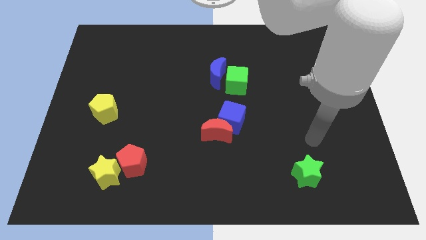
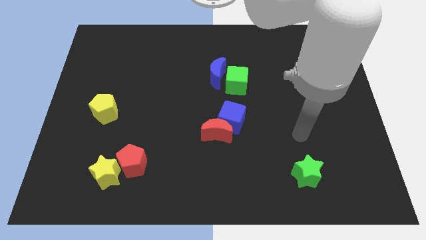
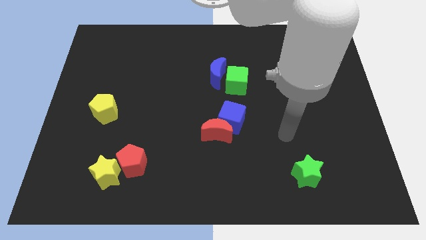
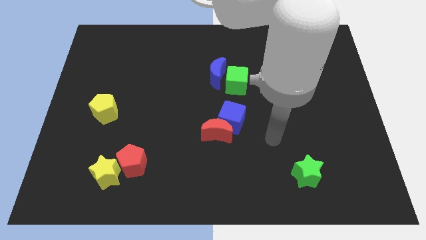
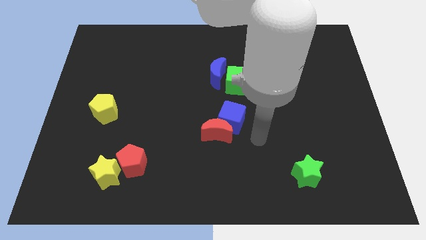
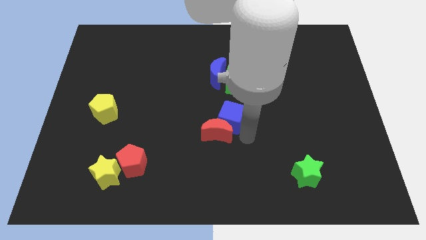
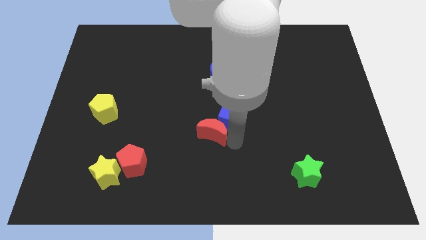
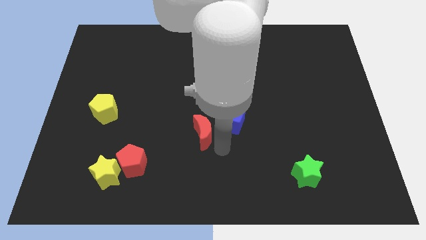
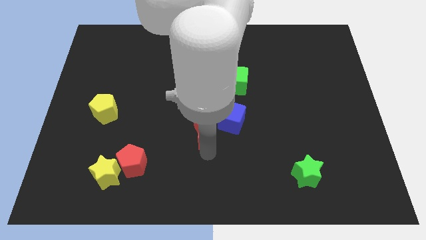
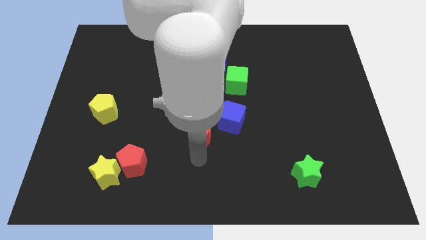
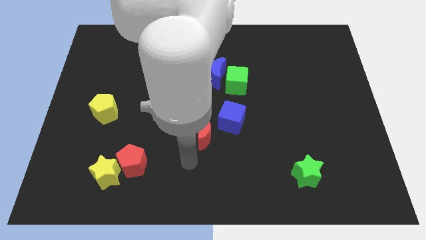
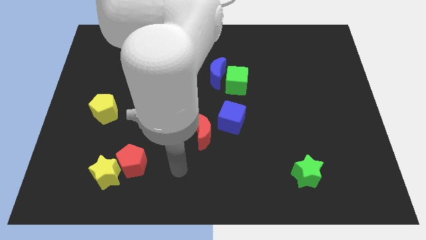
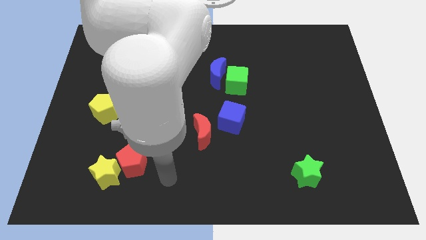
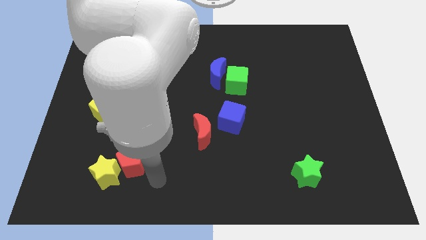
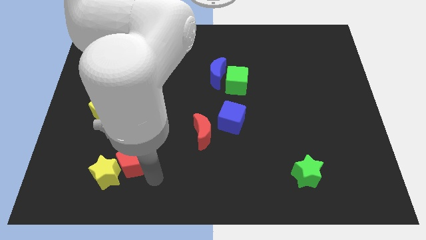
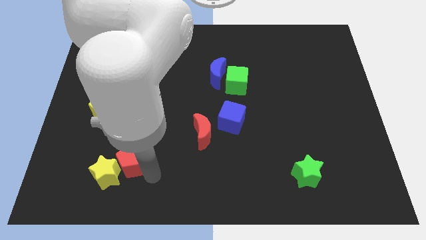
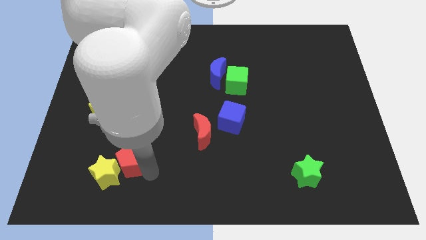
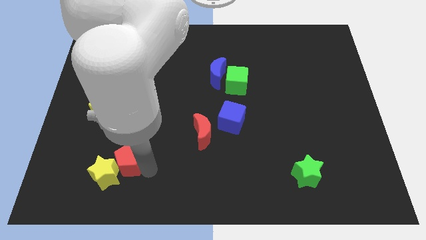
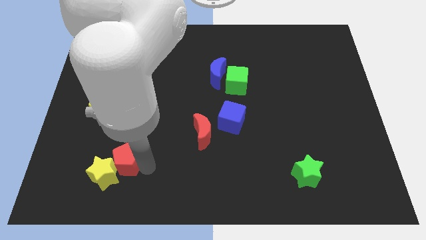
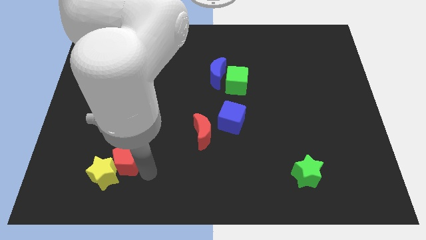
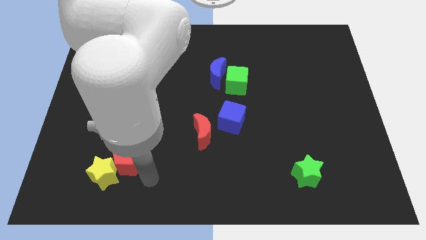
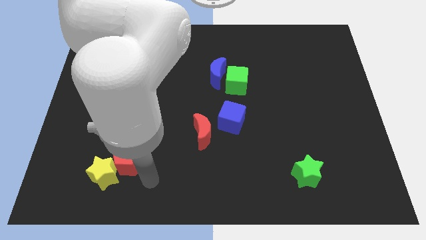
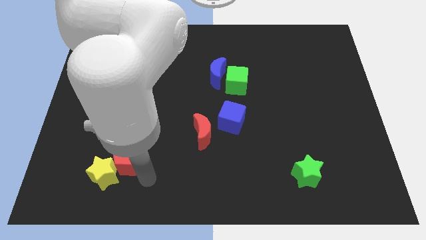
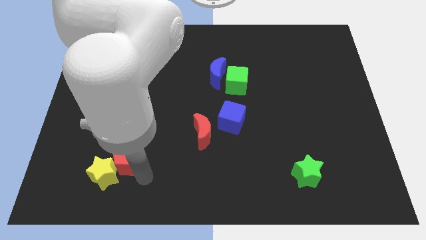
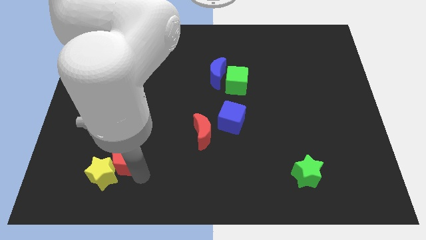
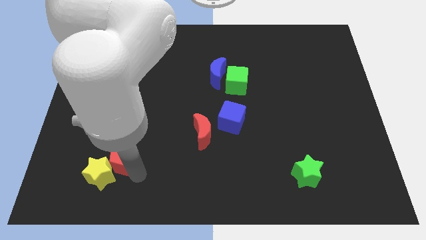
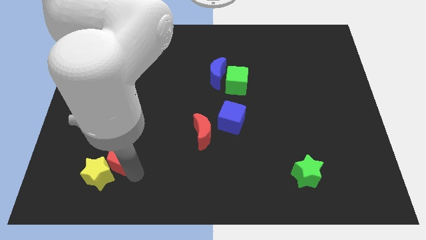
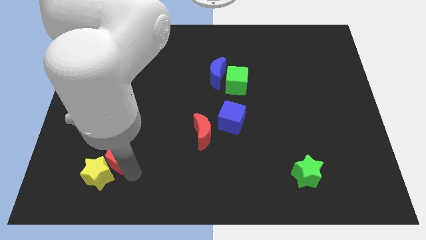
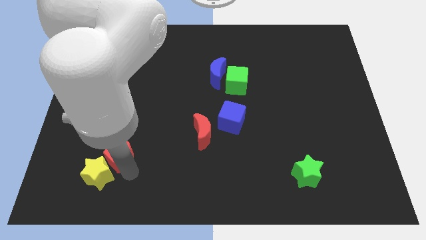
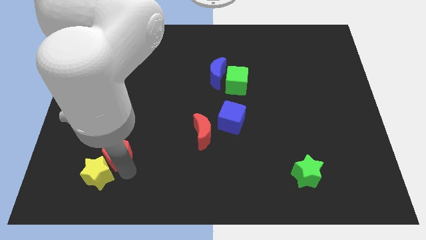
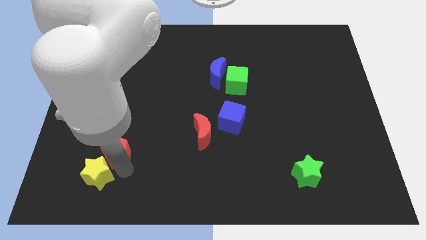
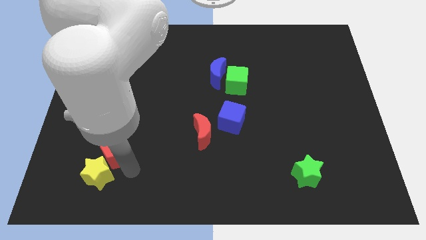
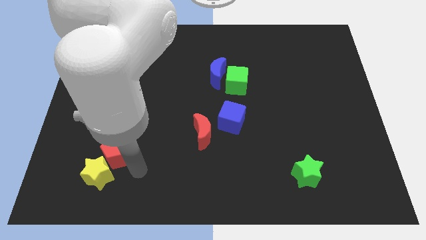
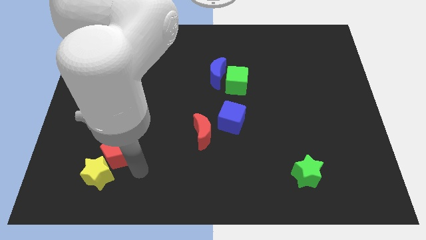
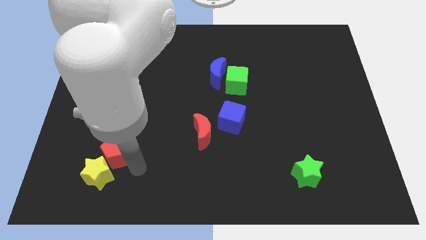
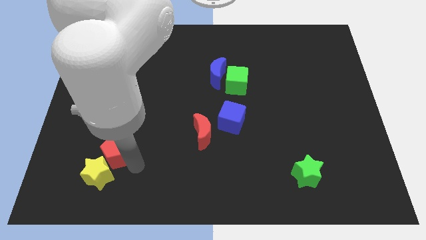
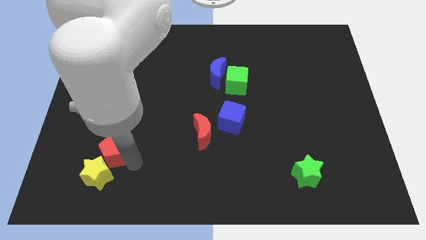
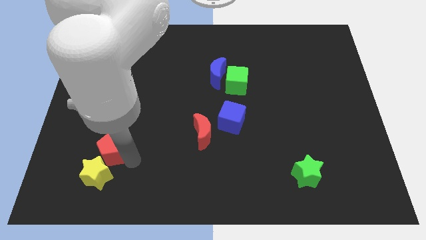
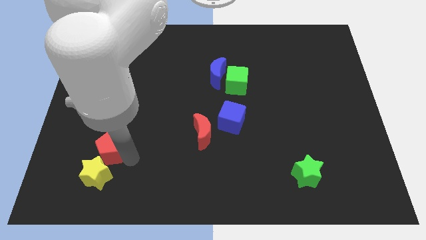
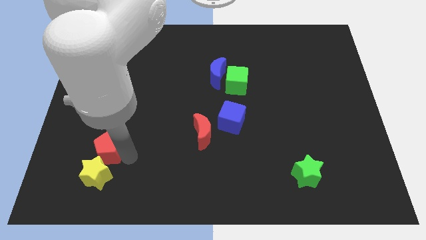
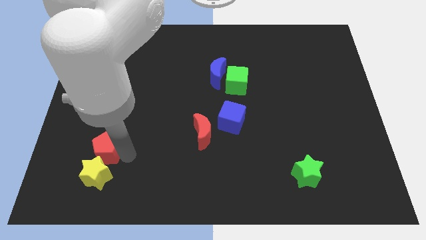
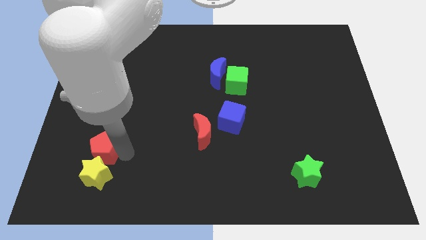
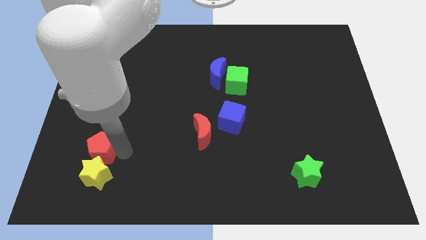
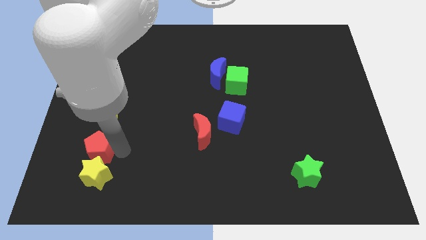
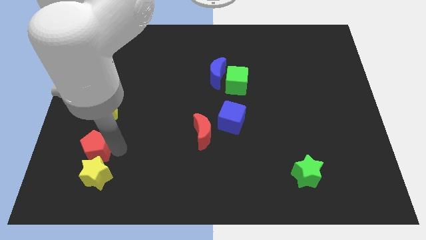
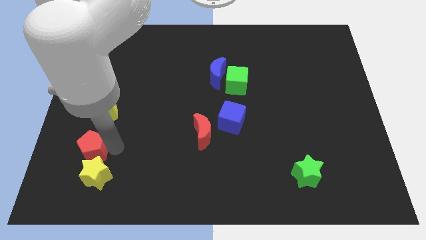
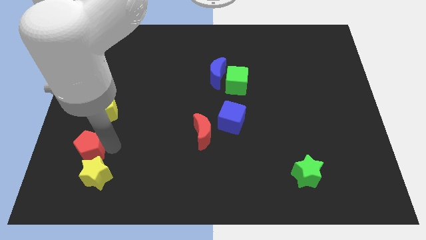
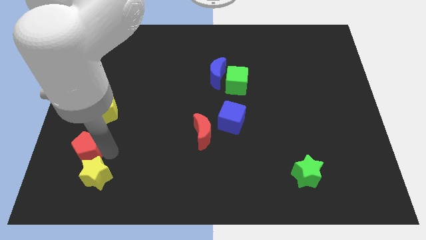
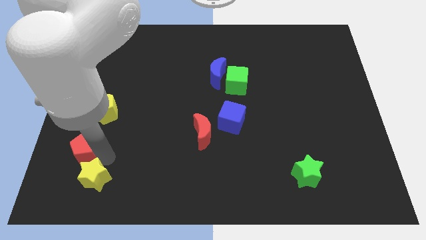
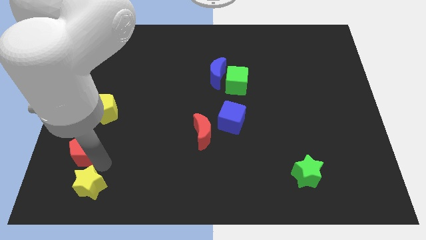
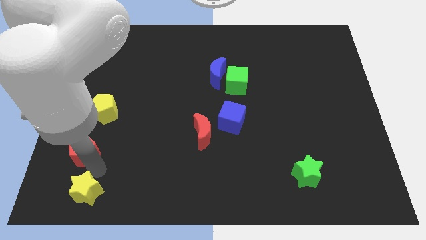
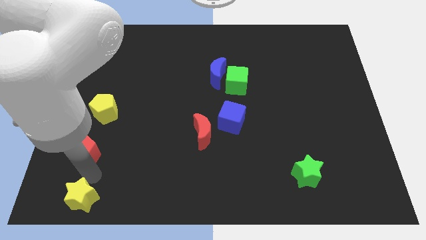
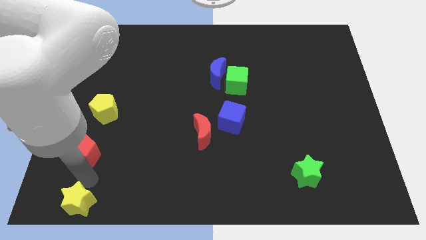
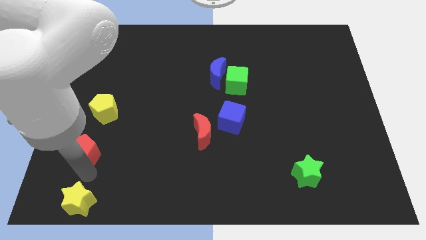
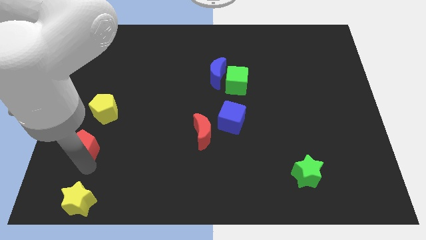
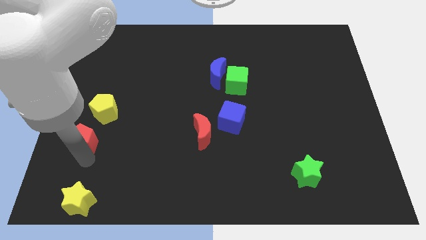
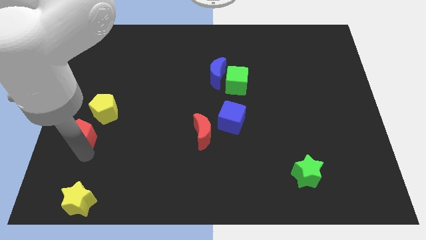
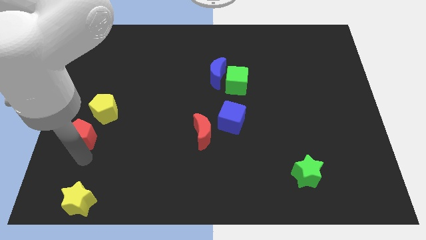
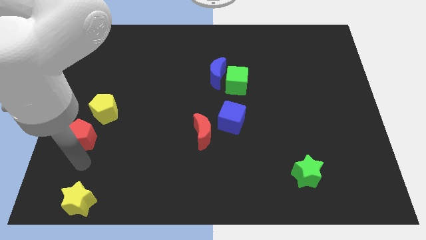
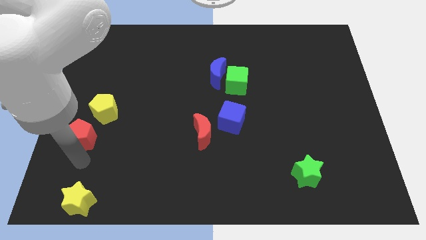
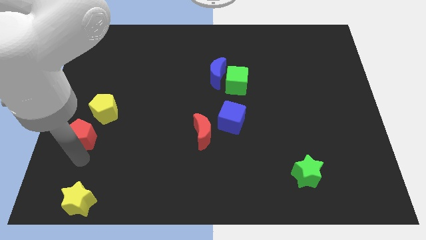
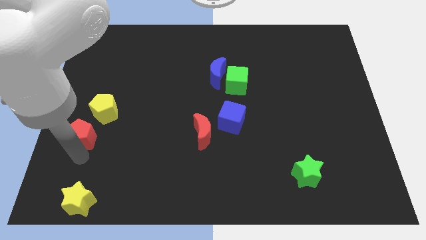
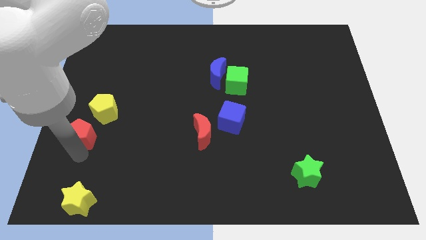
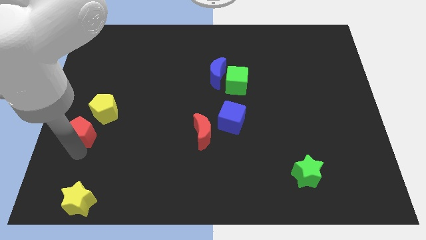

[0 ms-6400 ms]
slide the red pentagon to the left side
